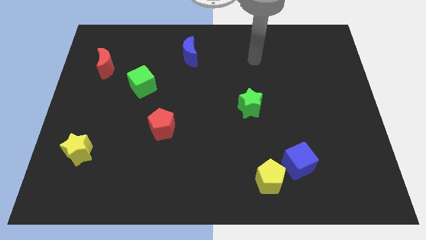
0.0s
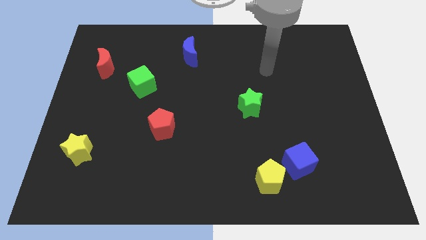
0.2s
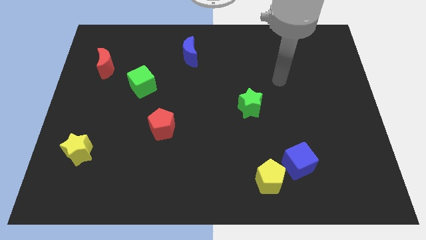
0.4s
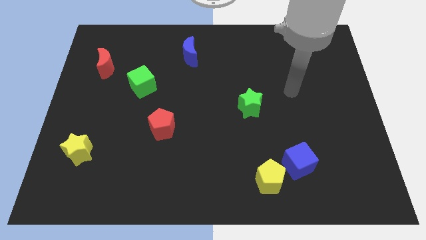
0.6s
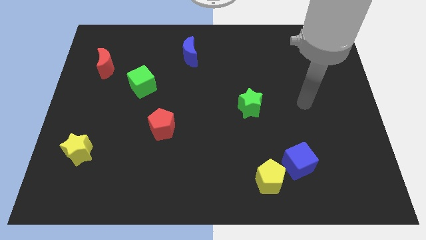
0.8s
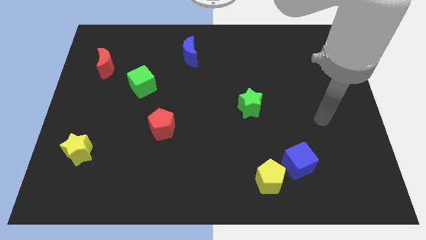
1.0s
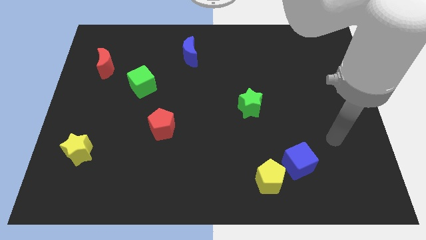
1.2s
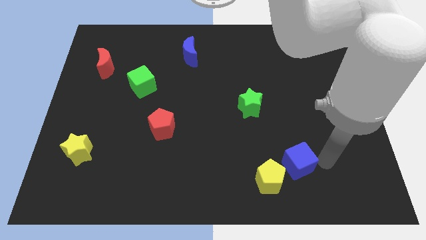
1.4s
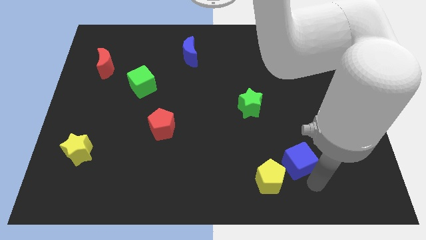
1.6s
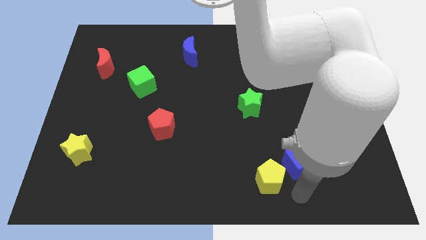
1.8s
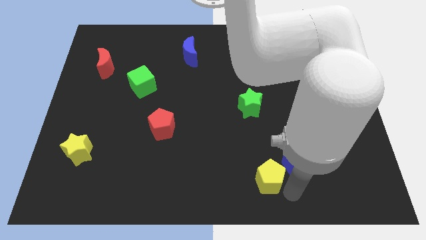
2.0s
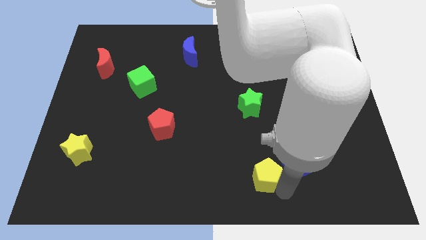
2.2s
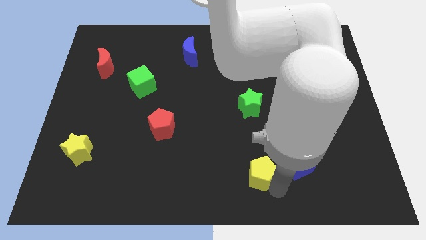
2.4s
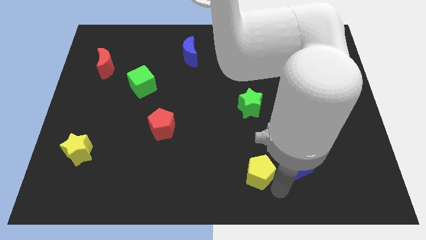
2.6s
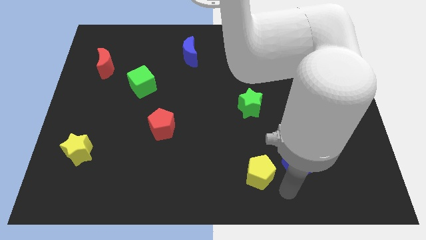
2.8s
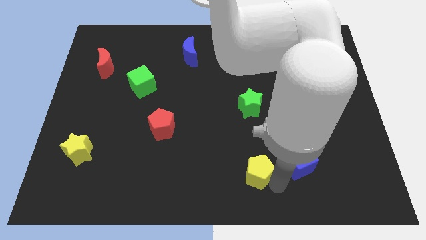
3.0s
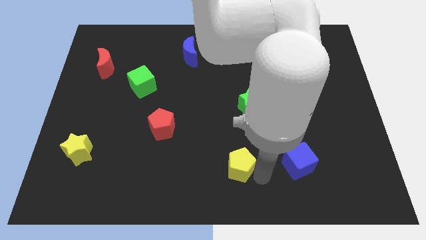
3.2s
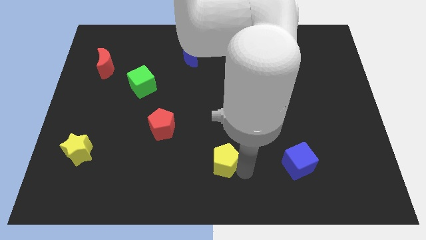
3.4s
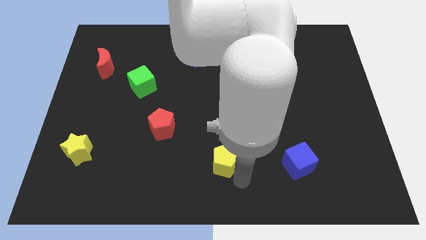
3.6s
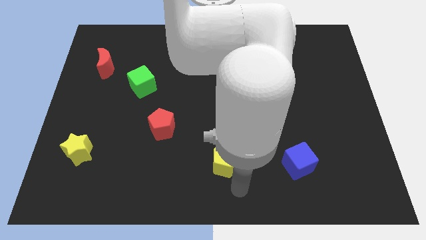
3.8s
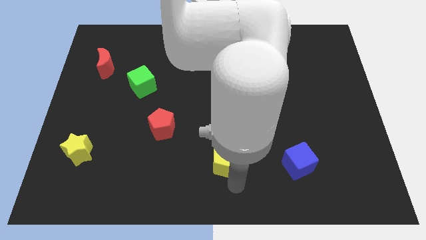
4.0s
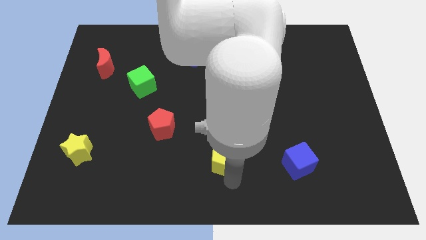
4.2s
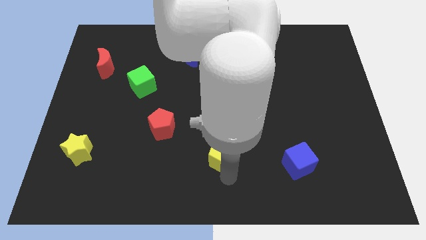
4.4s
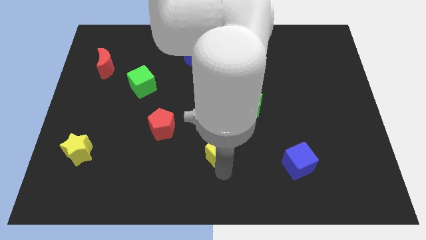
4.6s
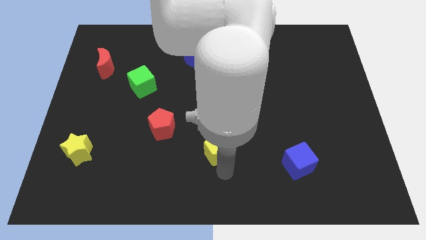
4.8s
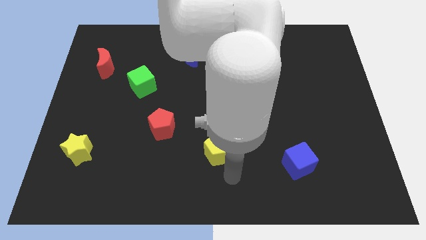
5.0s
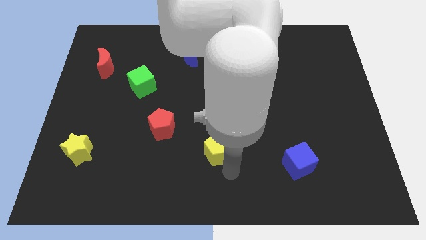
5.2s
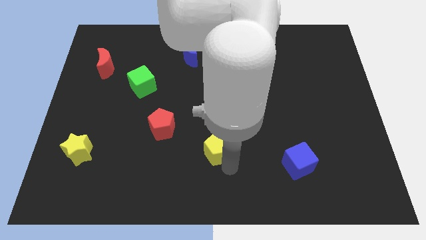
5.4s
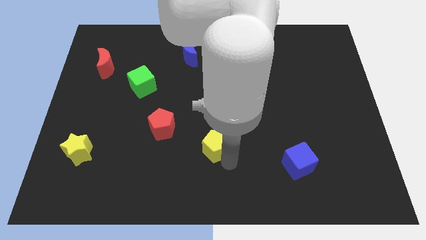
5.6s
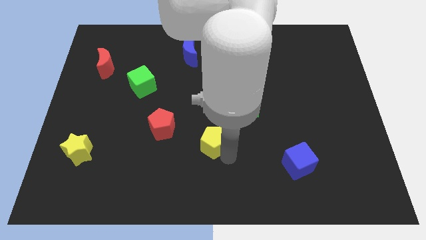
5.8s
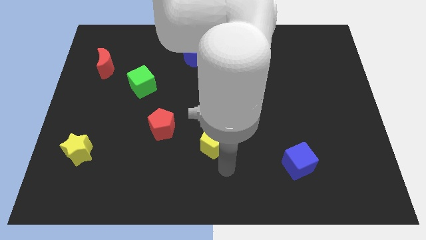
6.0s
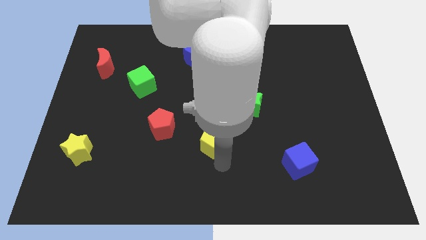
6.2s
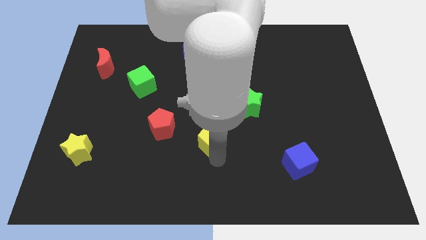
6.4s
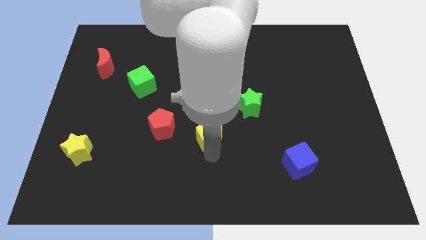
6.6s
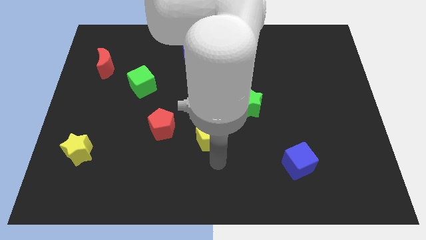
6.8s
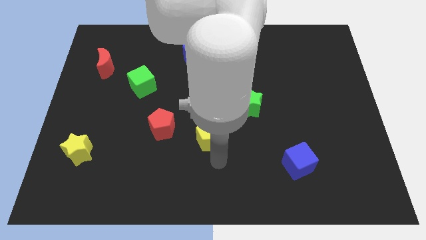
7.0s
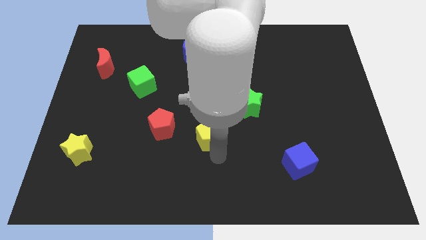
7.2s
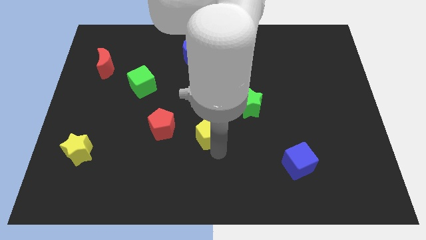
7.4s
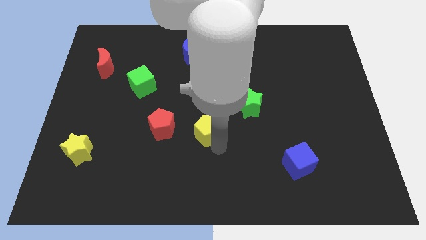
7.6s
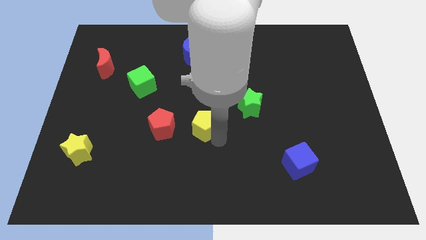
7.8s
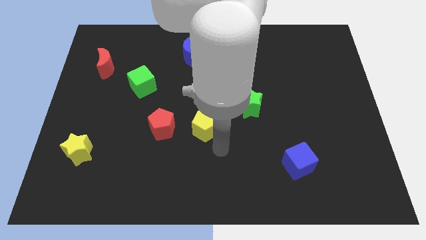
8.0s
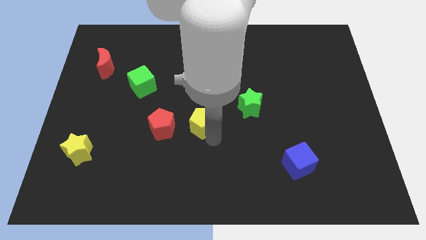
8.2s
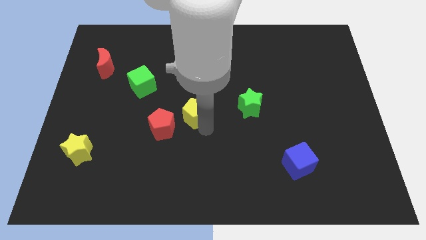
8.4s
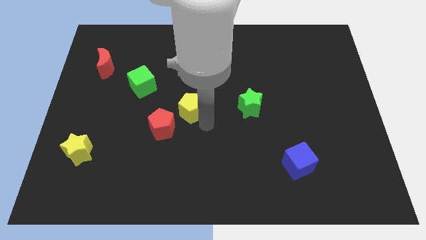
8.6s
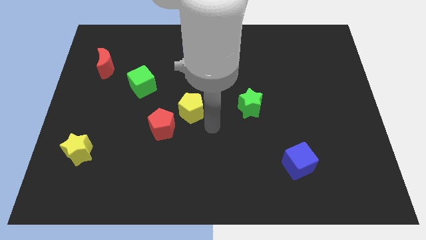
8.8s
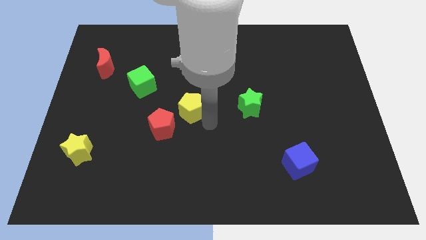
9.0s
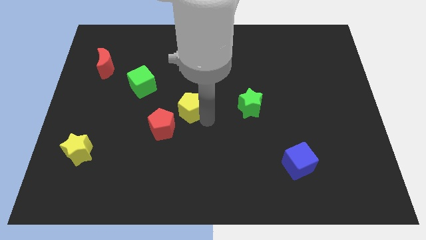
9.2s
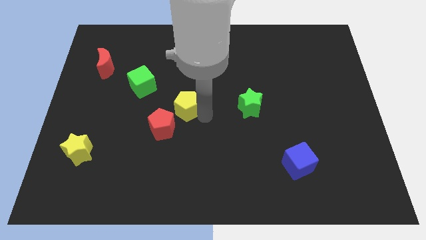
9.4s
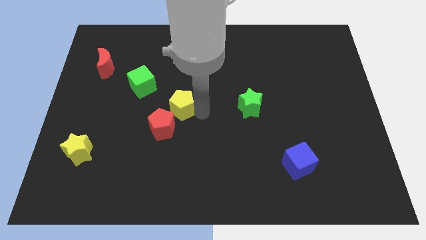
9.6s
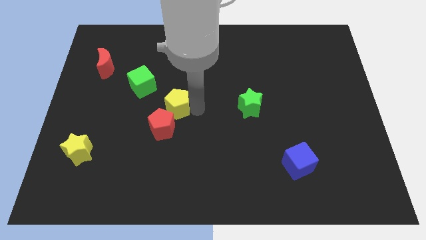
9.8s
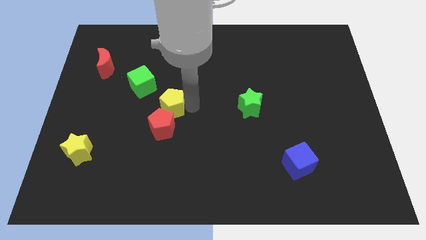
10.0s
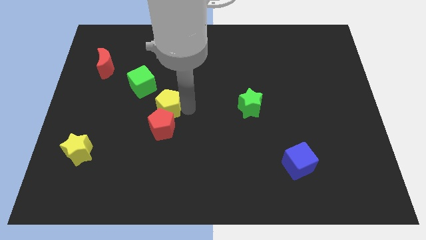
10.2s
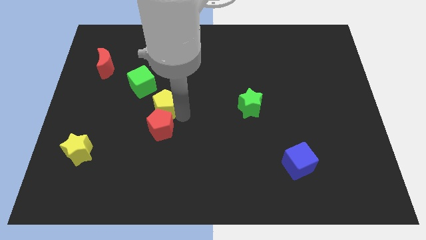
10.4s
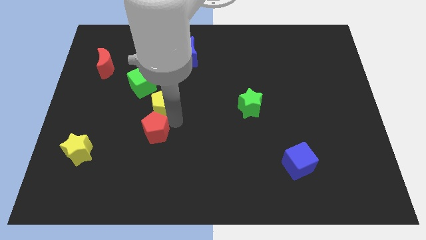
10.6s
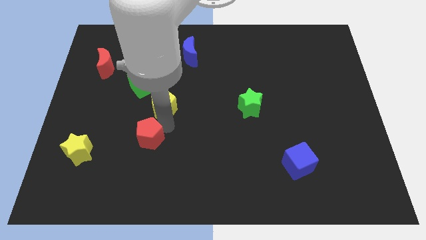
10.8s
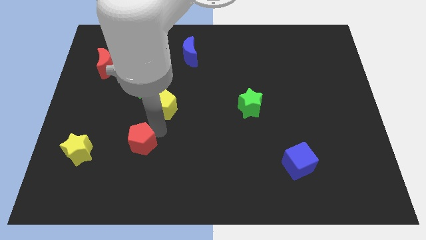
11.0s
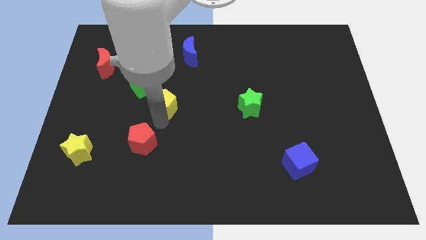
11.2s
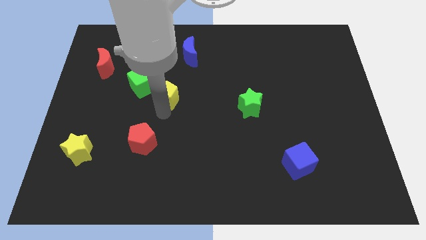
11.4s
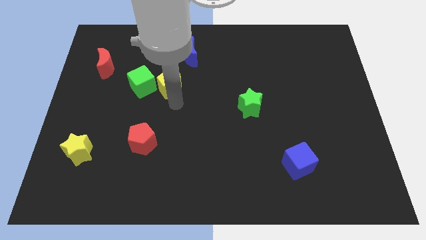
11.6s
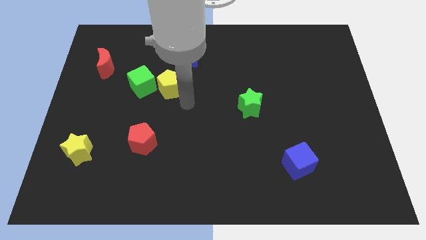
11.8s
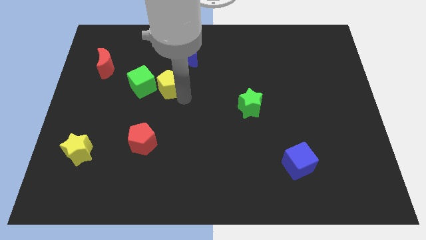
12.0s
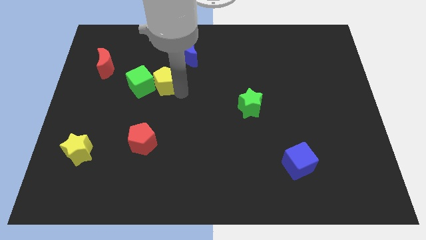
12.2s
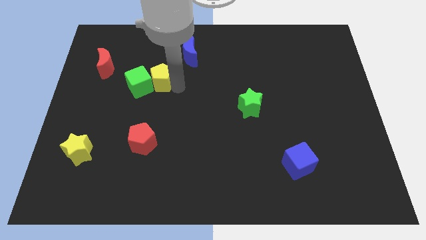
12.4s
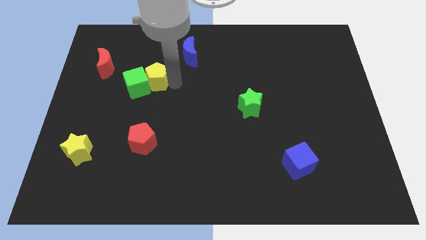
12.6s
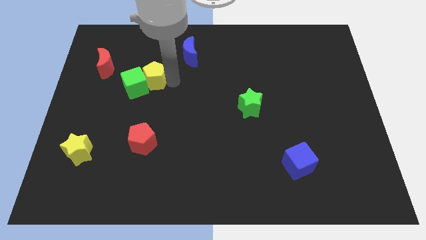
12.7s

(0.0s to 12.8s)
put the yellow pentagon right of the red moon
